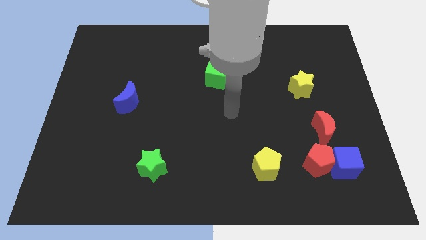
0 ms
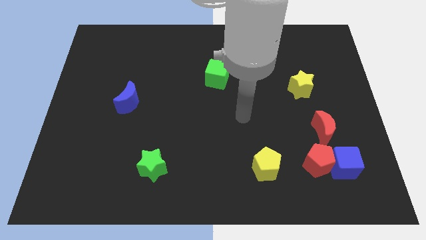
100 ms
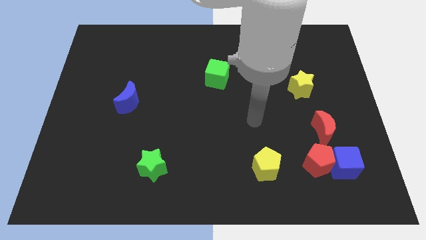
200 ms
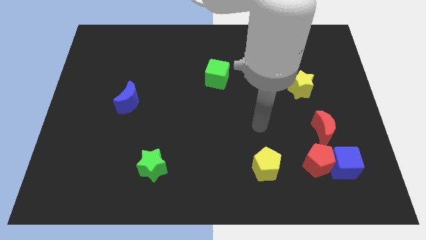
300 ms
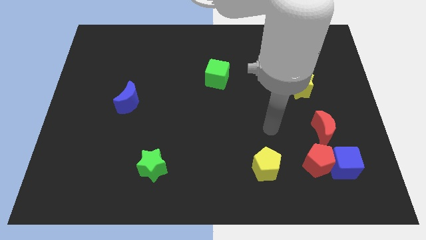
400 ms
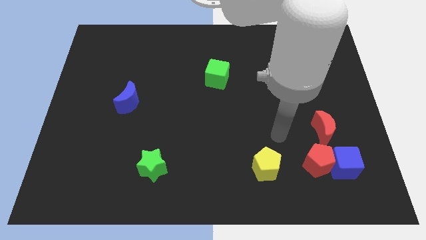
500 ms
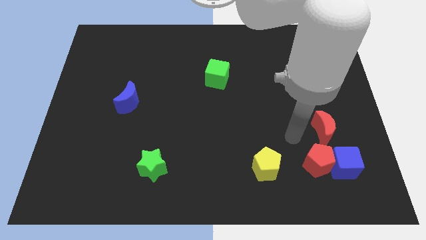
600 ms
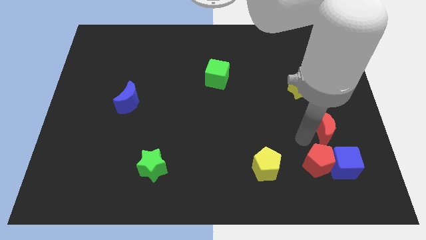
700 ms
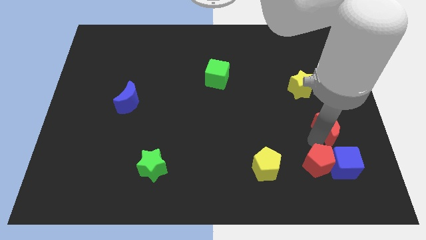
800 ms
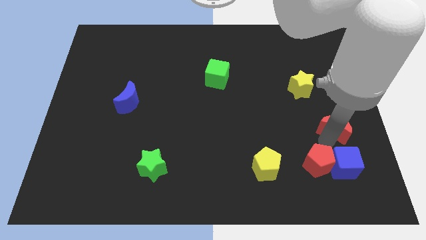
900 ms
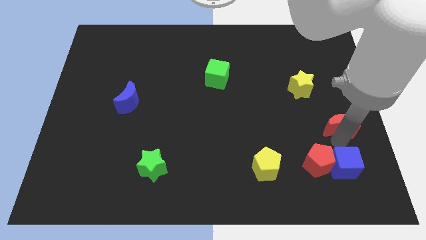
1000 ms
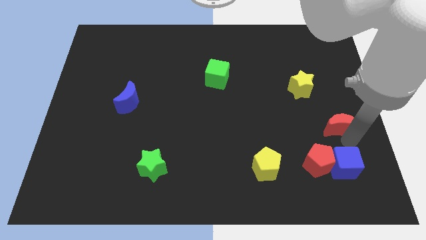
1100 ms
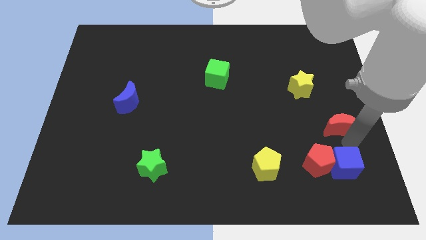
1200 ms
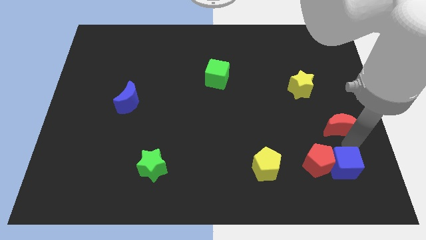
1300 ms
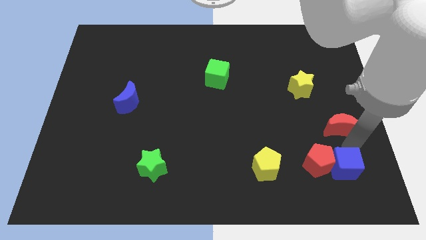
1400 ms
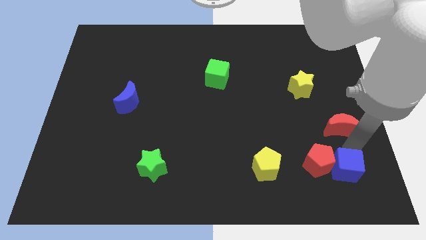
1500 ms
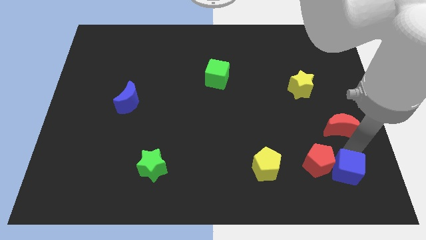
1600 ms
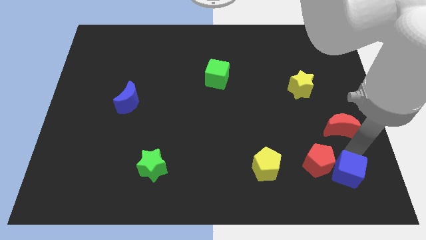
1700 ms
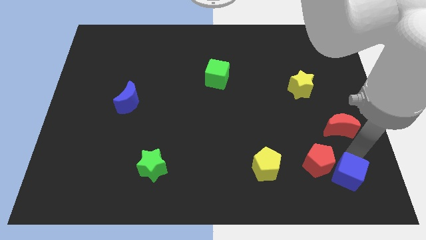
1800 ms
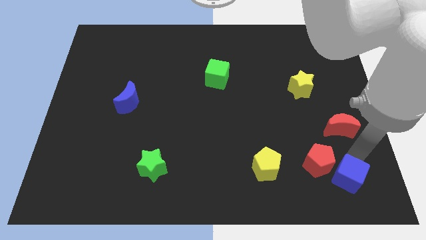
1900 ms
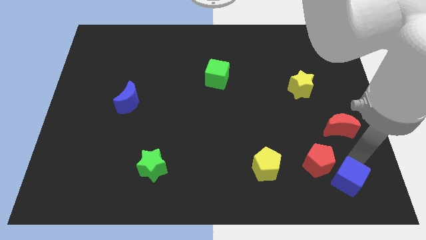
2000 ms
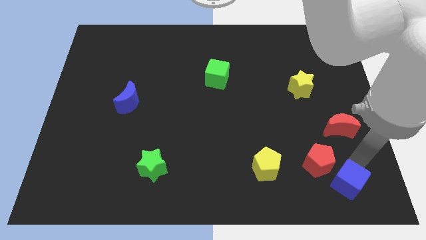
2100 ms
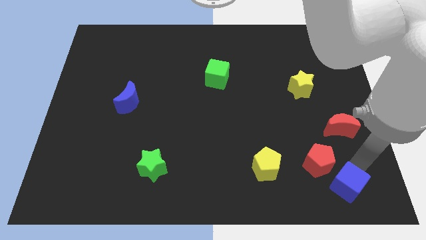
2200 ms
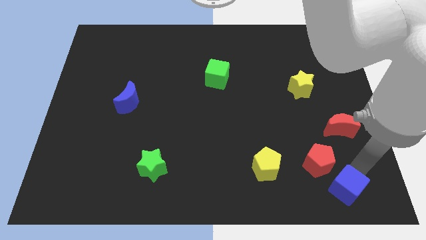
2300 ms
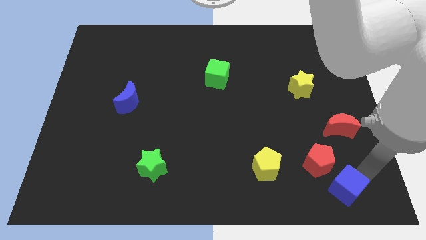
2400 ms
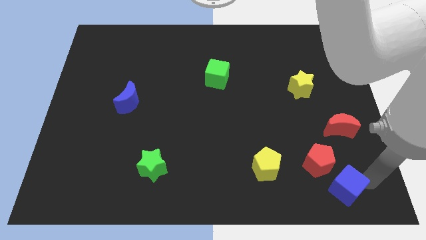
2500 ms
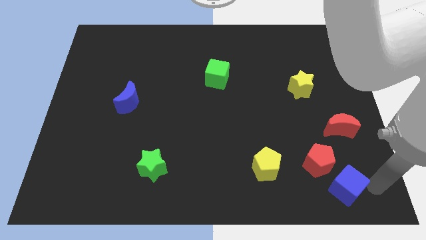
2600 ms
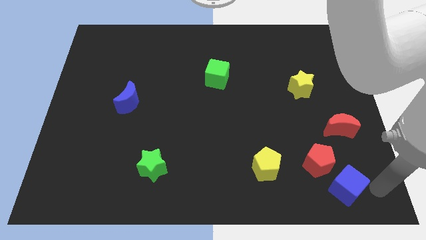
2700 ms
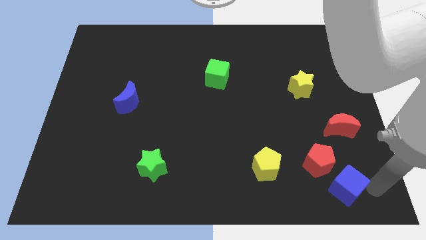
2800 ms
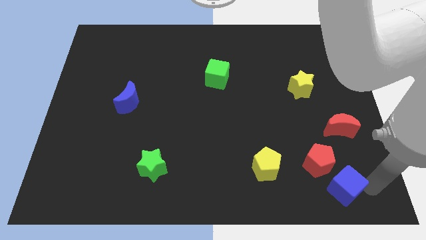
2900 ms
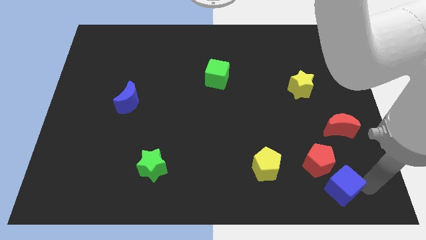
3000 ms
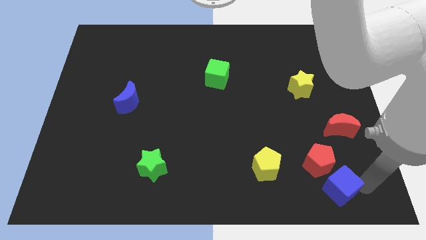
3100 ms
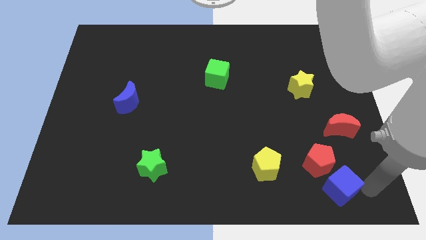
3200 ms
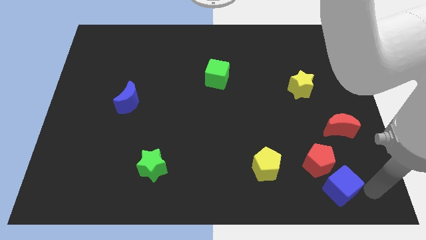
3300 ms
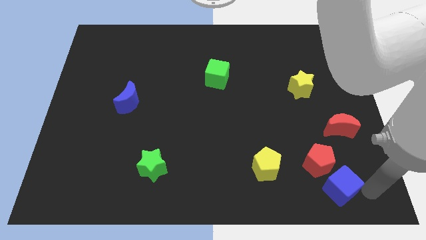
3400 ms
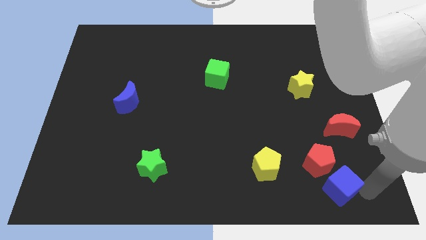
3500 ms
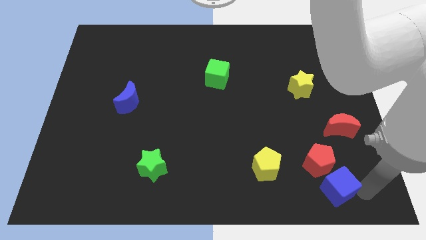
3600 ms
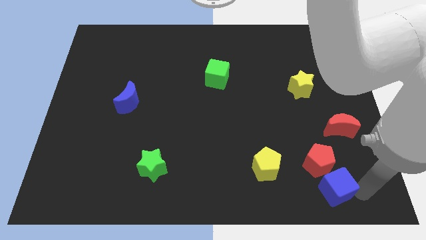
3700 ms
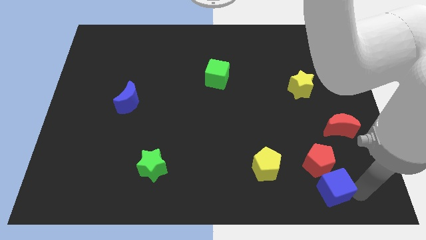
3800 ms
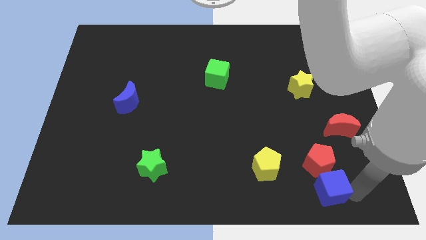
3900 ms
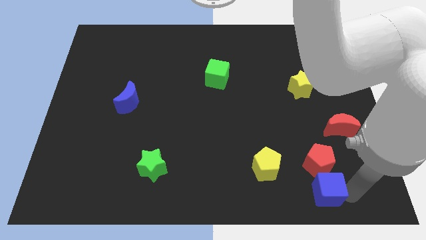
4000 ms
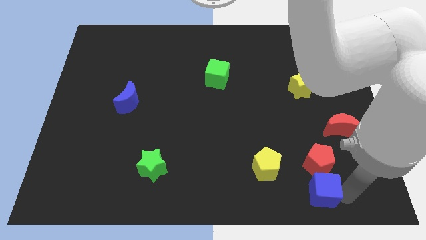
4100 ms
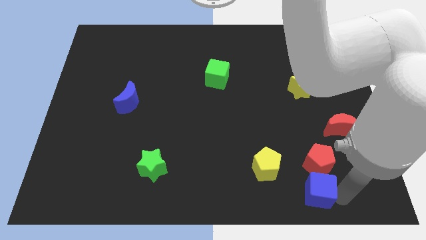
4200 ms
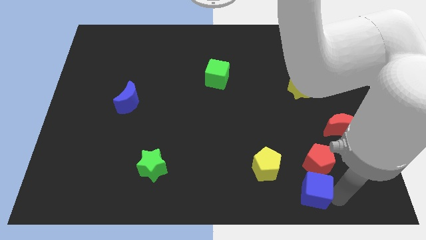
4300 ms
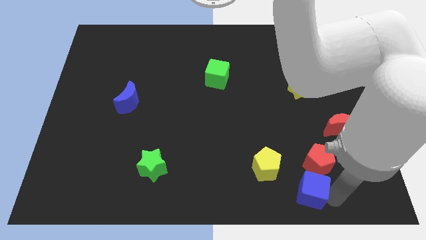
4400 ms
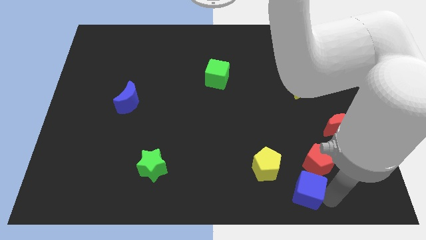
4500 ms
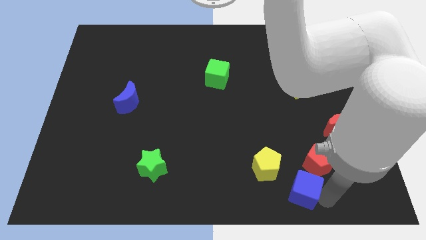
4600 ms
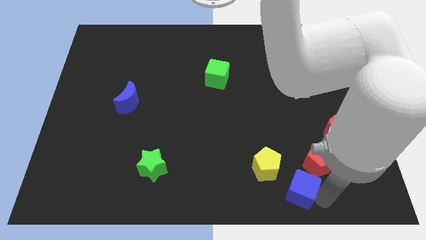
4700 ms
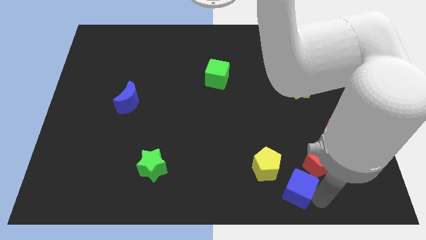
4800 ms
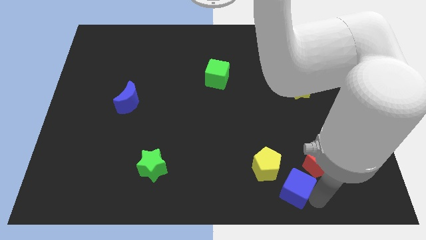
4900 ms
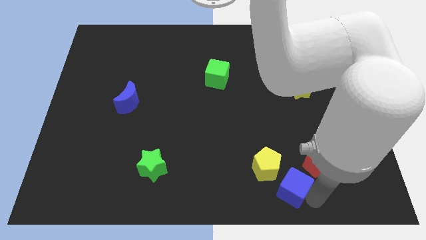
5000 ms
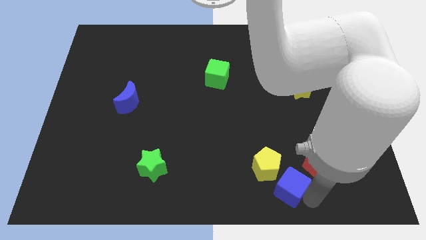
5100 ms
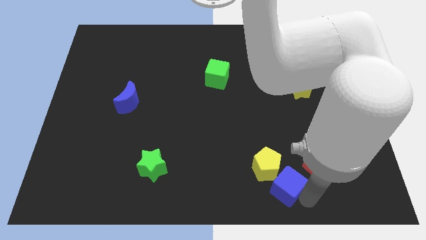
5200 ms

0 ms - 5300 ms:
move the blue cube to the yellow pentagon

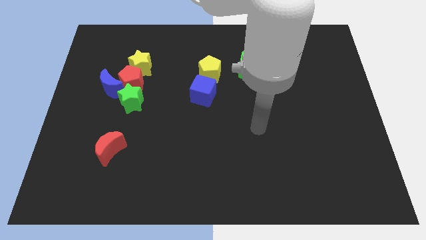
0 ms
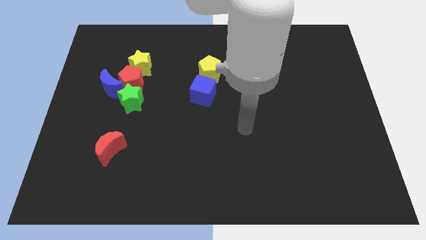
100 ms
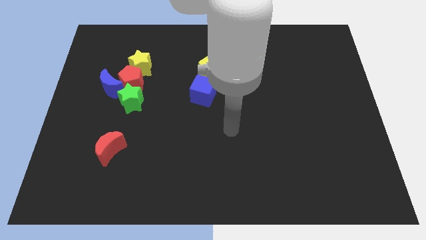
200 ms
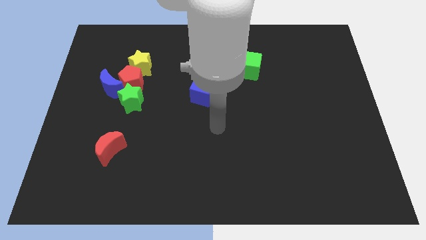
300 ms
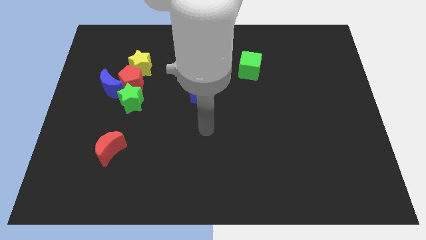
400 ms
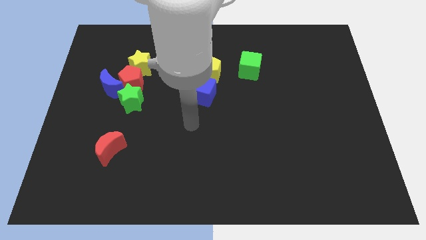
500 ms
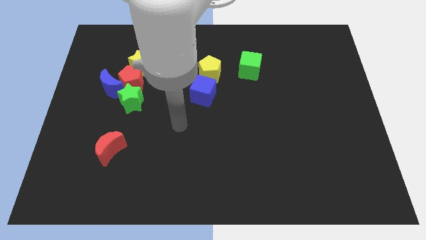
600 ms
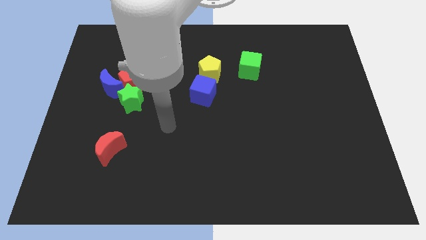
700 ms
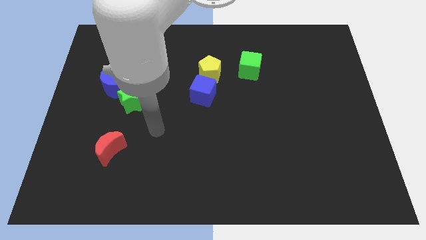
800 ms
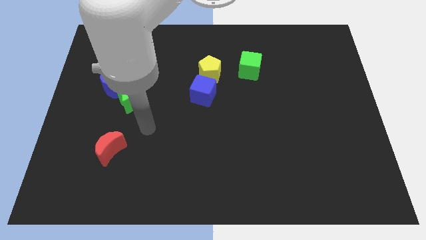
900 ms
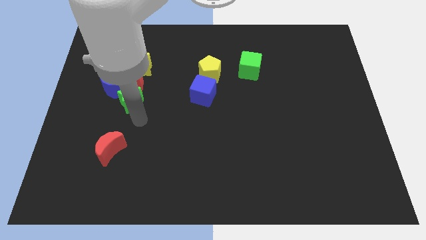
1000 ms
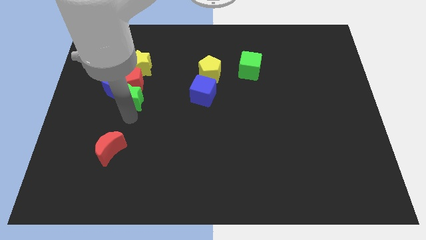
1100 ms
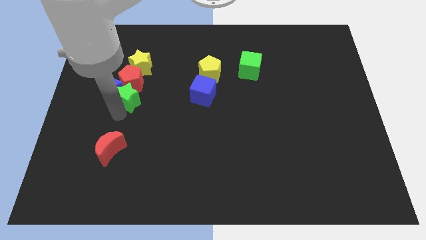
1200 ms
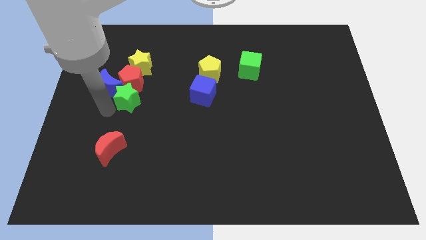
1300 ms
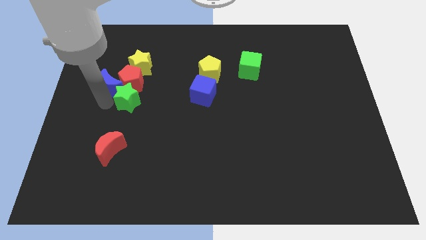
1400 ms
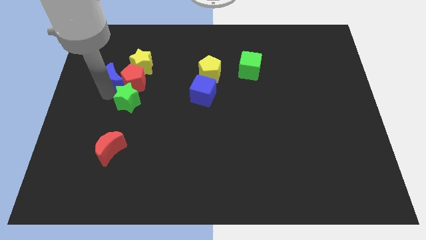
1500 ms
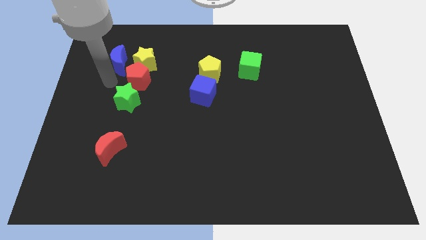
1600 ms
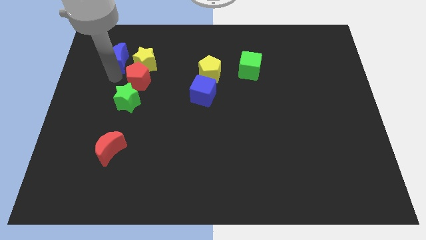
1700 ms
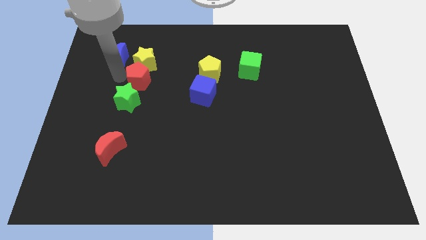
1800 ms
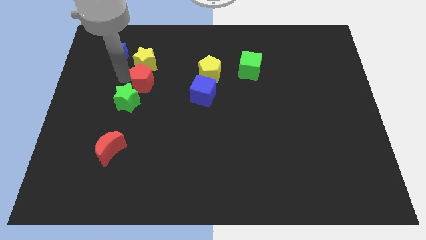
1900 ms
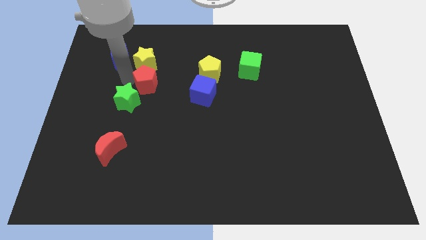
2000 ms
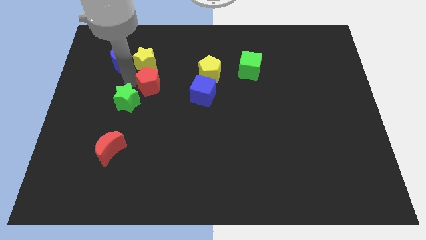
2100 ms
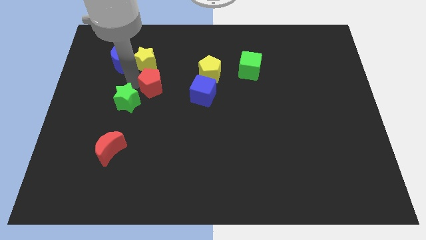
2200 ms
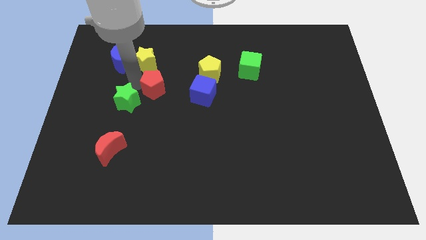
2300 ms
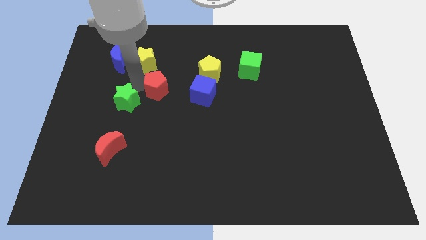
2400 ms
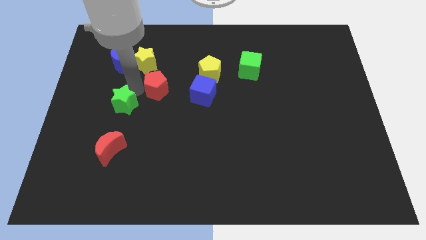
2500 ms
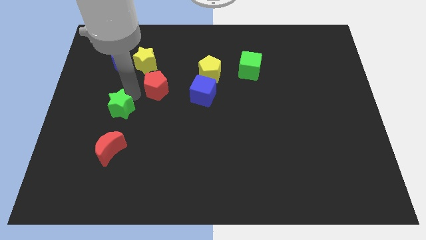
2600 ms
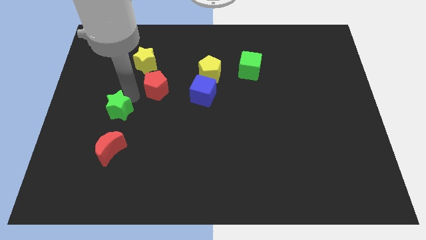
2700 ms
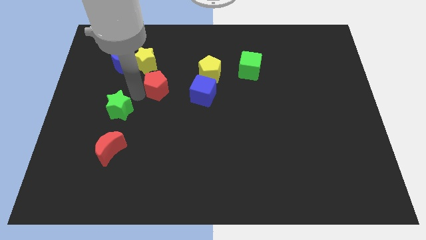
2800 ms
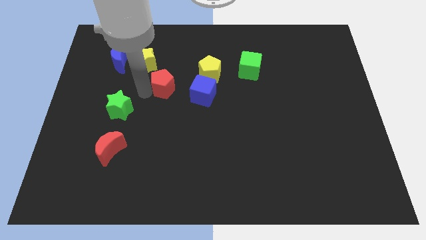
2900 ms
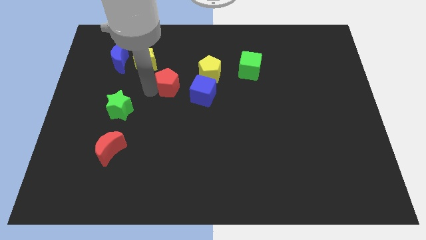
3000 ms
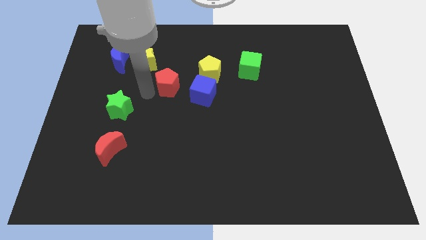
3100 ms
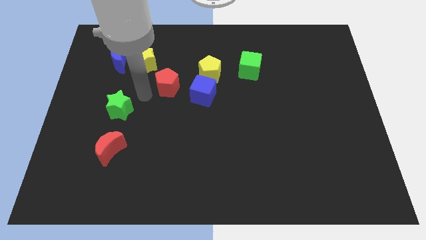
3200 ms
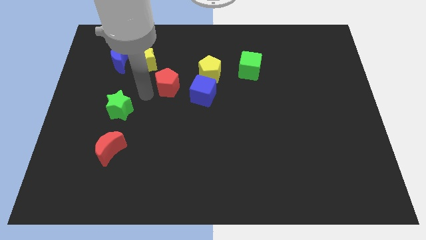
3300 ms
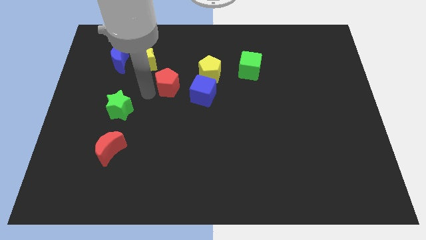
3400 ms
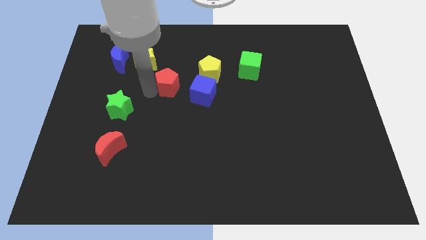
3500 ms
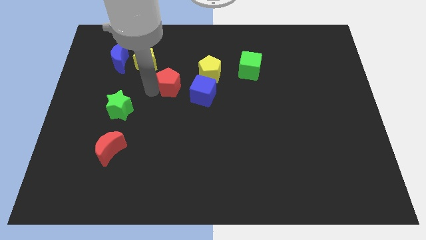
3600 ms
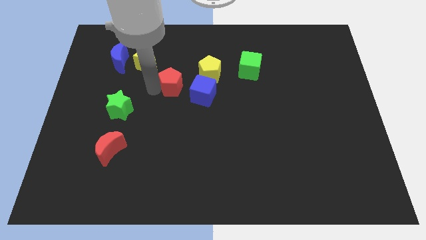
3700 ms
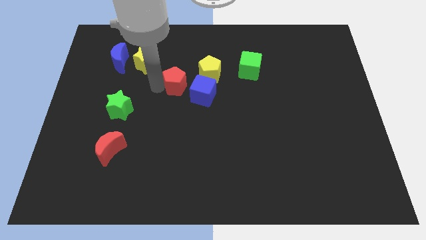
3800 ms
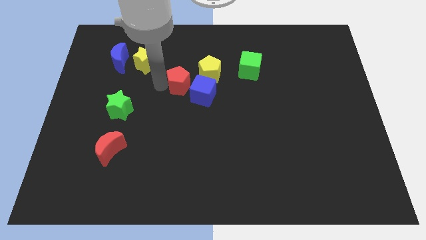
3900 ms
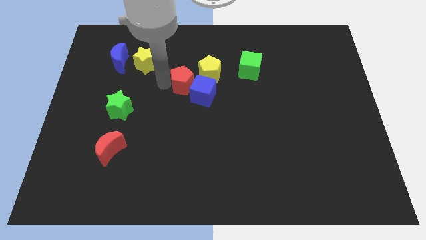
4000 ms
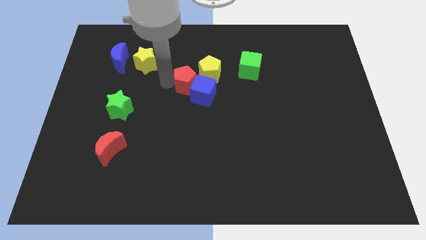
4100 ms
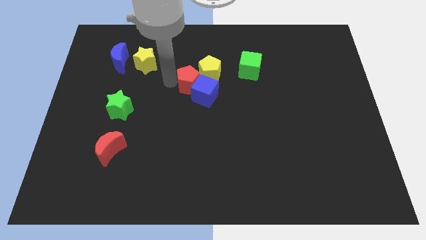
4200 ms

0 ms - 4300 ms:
move the red pentagon towards the yellow pentagon
